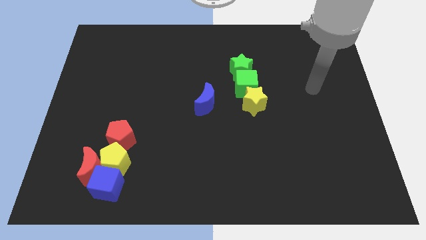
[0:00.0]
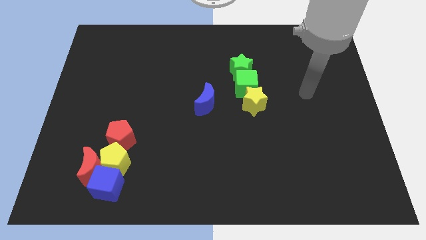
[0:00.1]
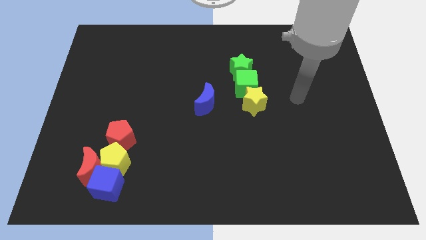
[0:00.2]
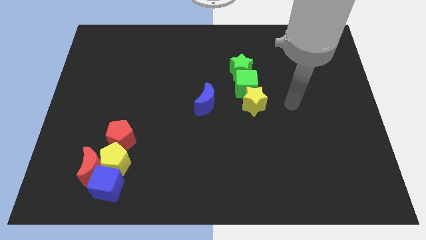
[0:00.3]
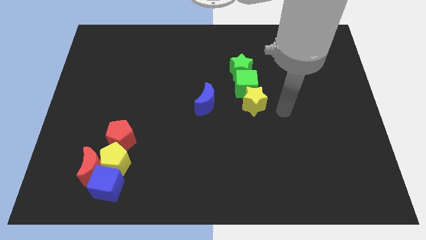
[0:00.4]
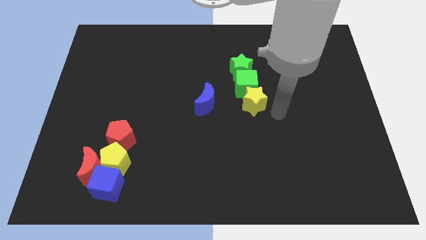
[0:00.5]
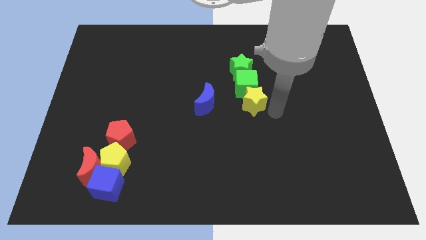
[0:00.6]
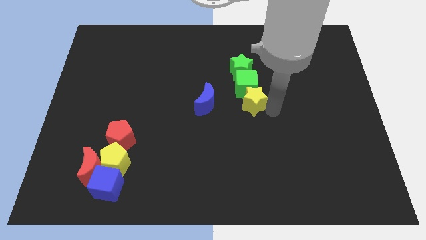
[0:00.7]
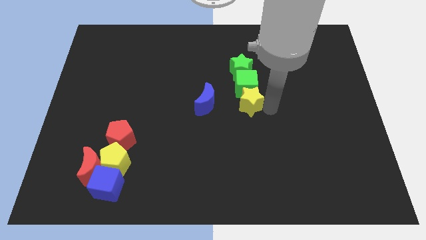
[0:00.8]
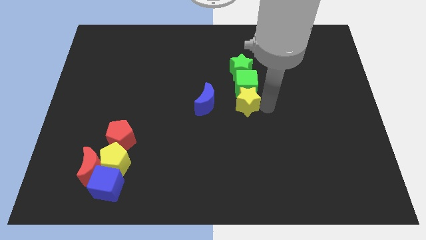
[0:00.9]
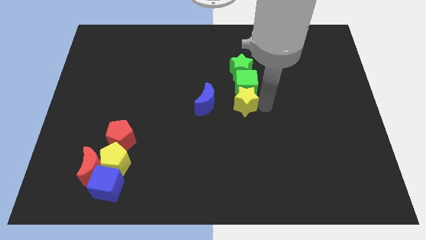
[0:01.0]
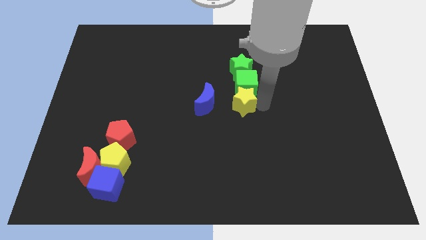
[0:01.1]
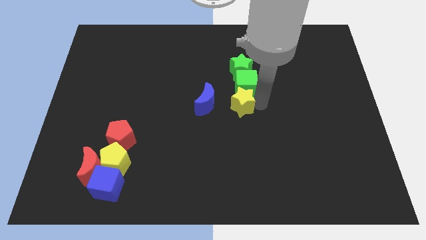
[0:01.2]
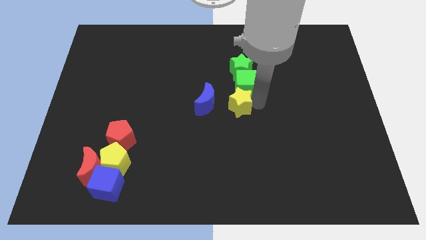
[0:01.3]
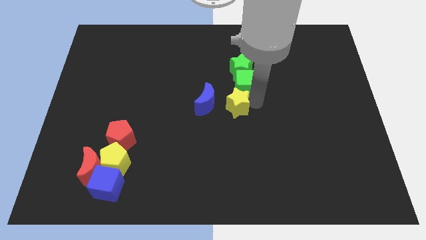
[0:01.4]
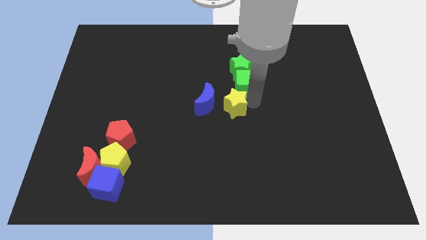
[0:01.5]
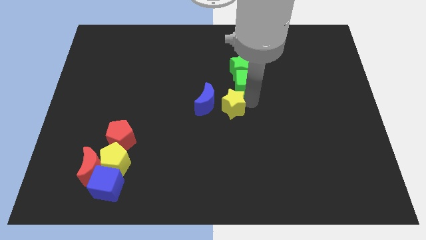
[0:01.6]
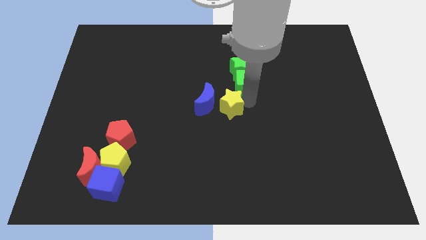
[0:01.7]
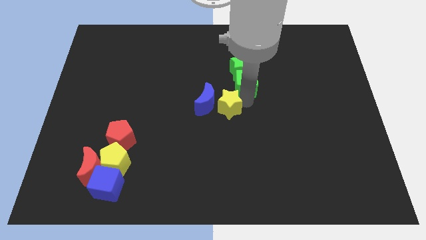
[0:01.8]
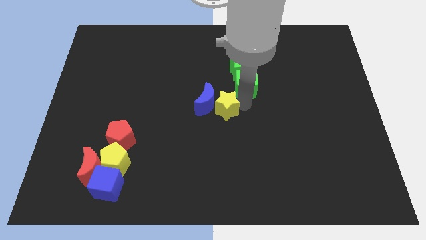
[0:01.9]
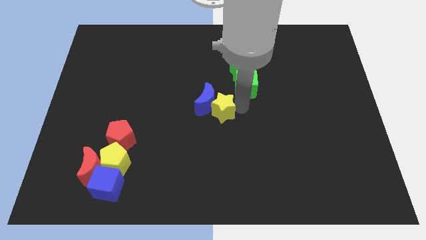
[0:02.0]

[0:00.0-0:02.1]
slide the yellow star slightly left

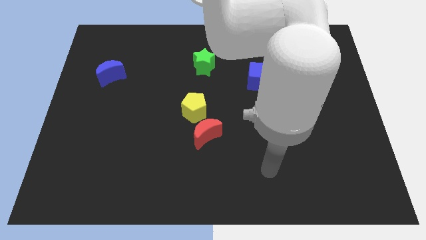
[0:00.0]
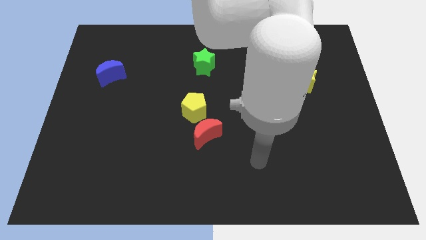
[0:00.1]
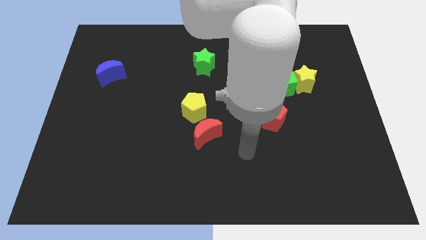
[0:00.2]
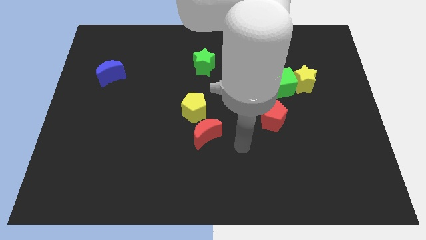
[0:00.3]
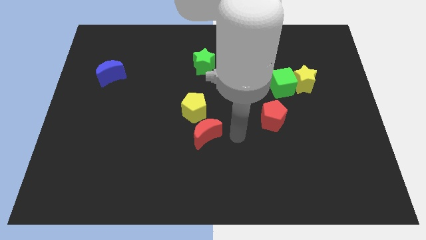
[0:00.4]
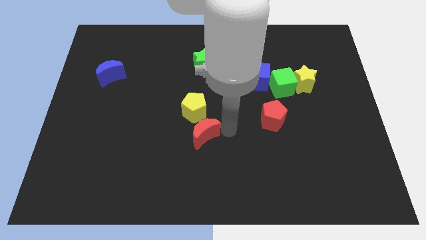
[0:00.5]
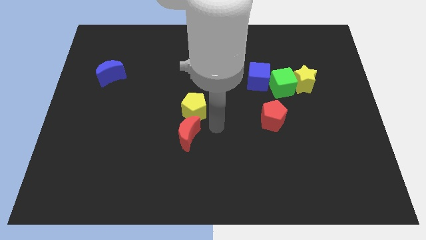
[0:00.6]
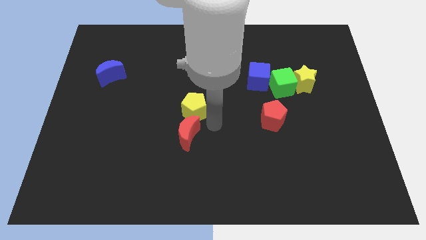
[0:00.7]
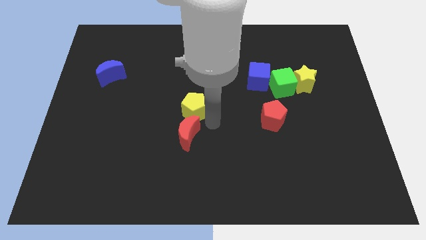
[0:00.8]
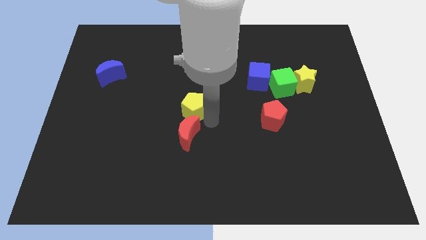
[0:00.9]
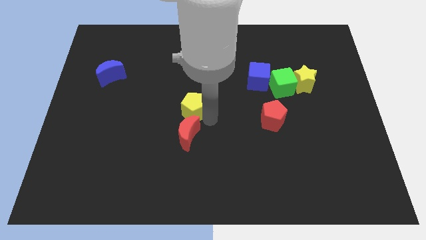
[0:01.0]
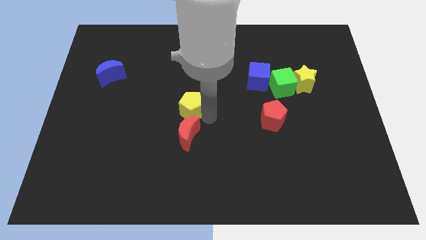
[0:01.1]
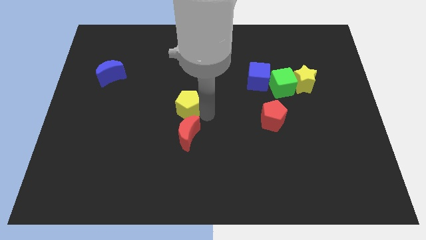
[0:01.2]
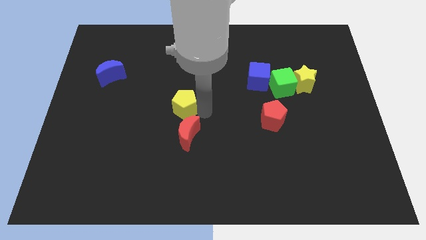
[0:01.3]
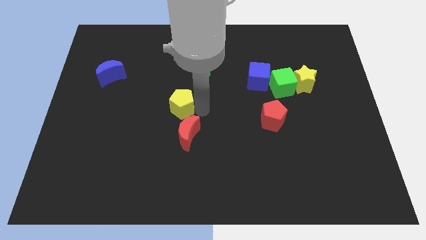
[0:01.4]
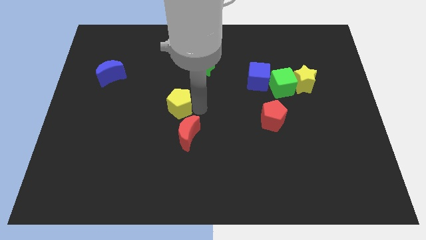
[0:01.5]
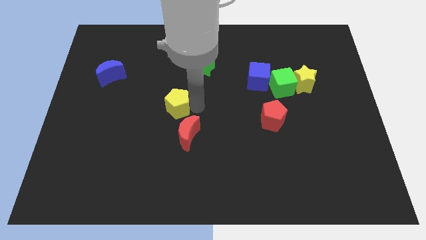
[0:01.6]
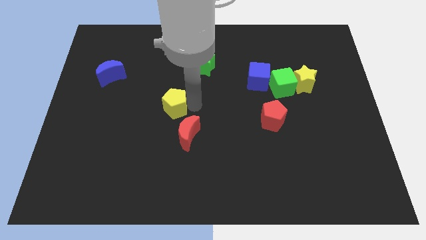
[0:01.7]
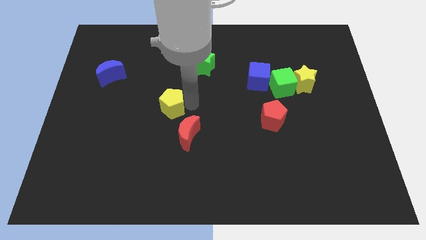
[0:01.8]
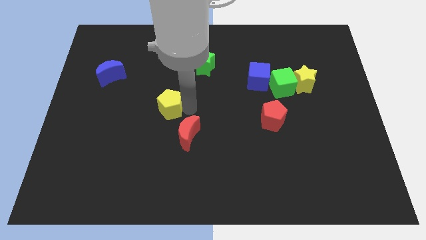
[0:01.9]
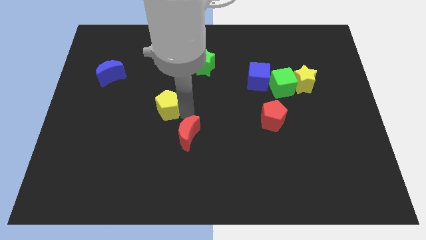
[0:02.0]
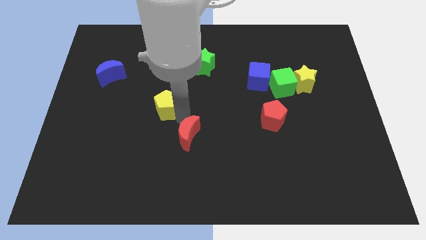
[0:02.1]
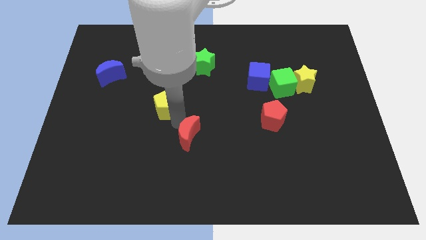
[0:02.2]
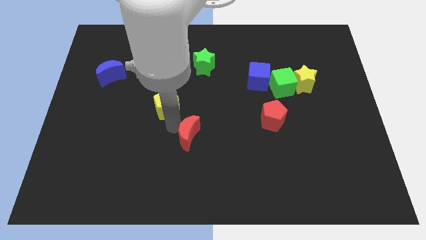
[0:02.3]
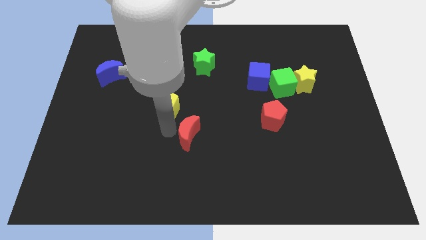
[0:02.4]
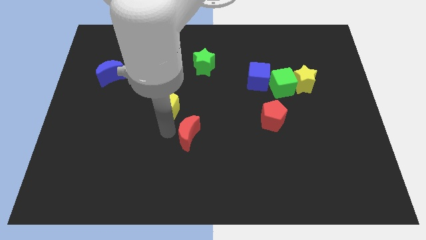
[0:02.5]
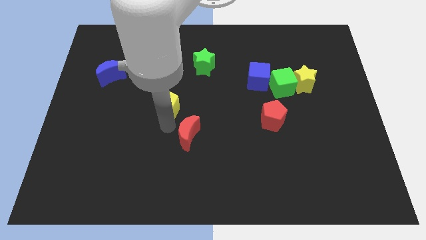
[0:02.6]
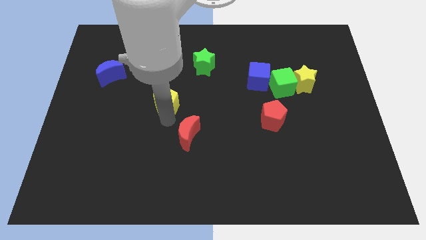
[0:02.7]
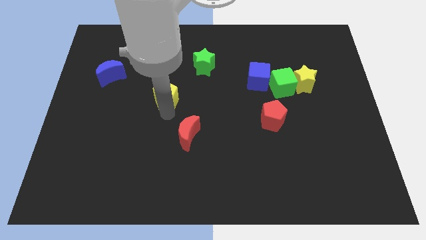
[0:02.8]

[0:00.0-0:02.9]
slightly push the yellow pentagon up and to the left

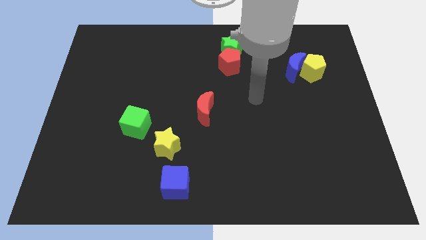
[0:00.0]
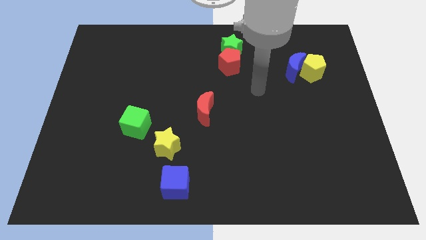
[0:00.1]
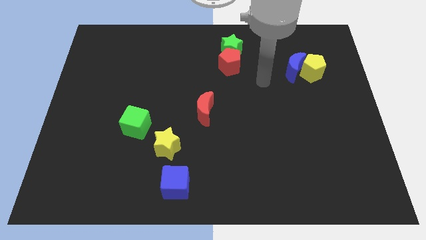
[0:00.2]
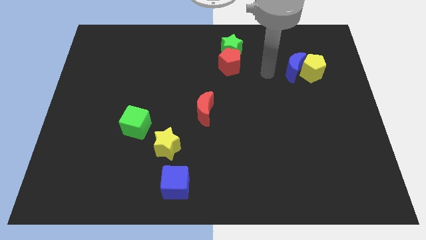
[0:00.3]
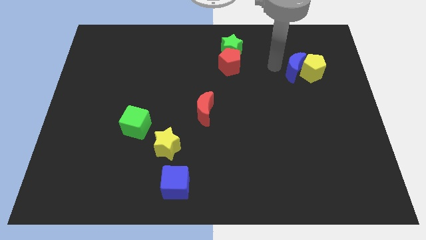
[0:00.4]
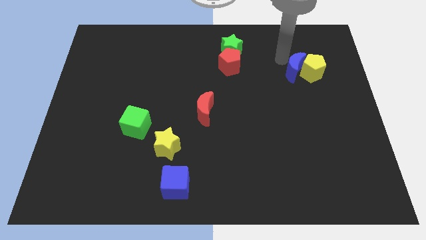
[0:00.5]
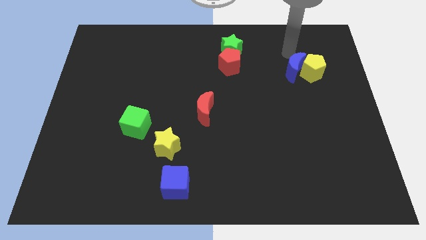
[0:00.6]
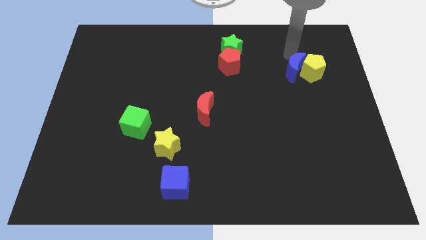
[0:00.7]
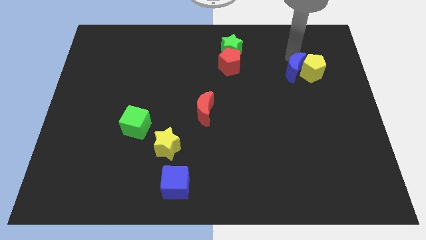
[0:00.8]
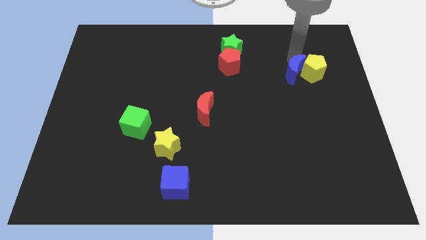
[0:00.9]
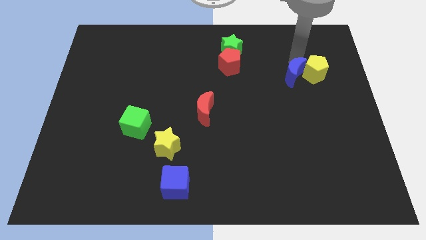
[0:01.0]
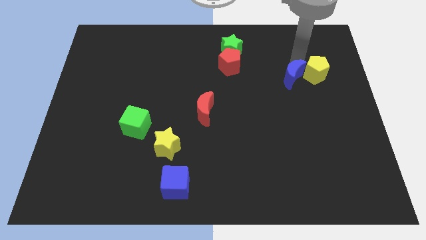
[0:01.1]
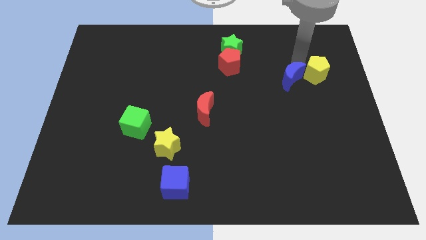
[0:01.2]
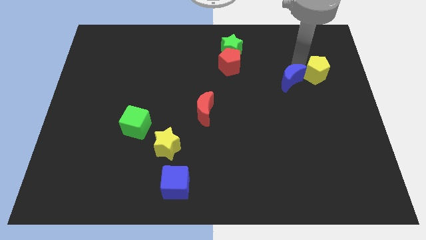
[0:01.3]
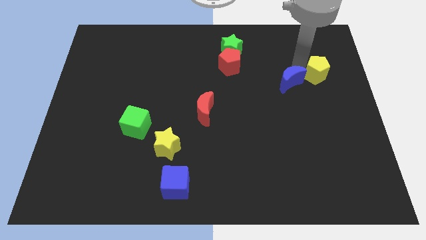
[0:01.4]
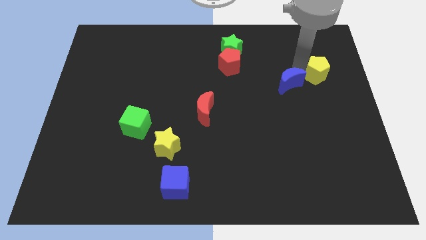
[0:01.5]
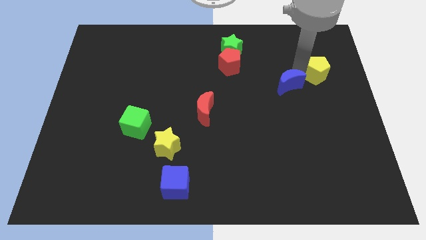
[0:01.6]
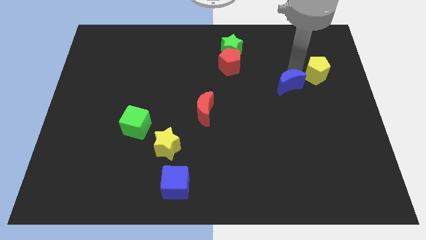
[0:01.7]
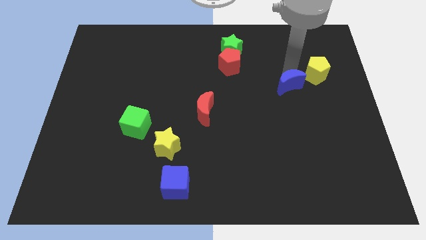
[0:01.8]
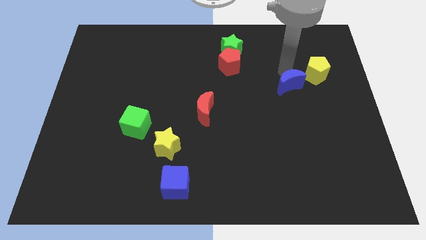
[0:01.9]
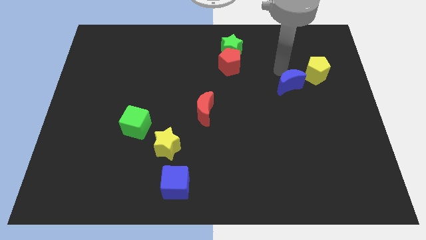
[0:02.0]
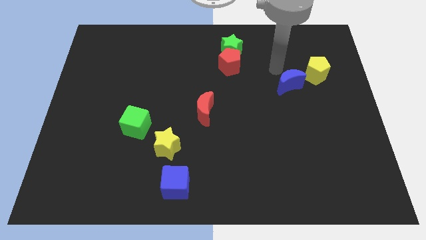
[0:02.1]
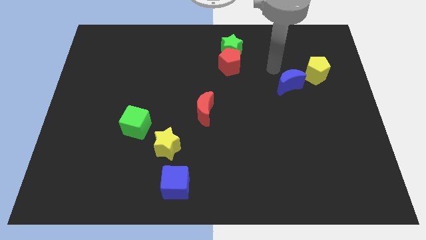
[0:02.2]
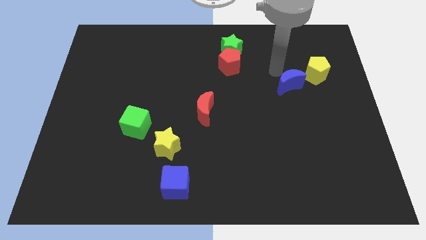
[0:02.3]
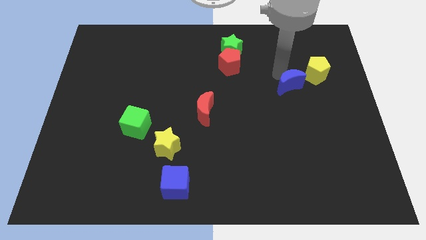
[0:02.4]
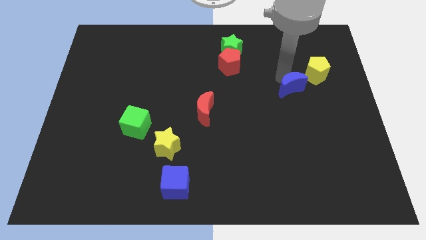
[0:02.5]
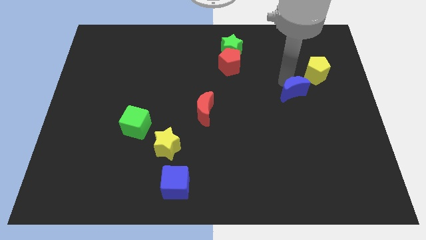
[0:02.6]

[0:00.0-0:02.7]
push the blue moon down slightly

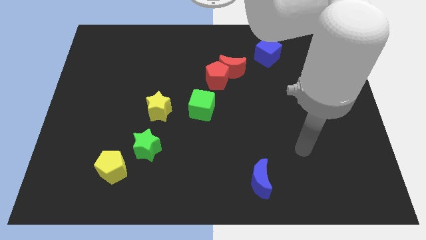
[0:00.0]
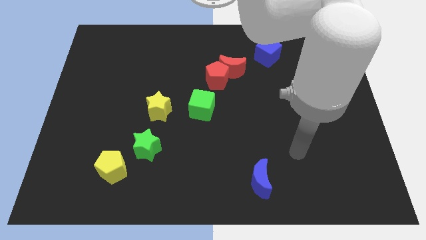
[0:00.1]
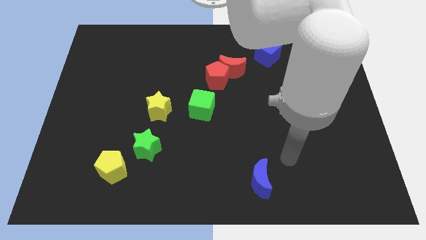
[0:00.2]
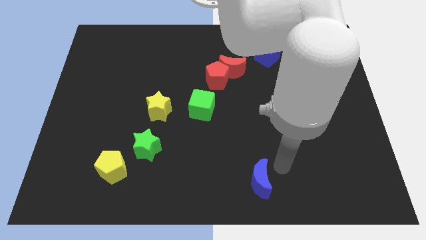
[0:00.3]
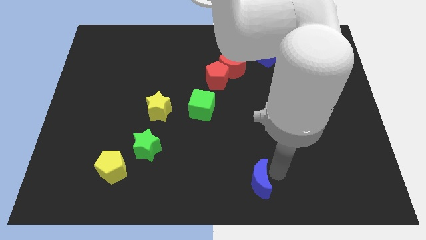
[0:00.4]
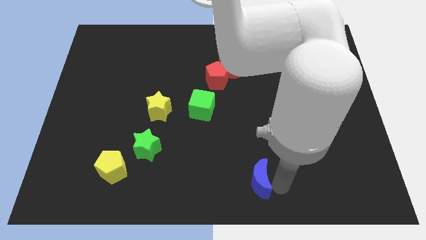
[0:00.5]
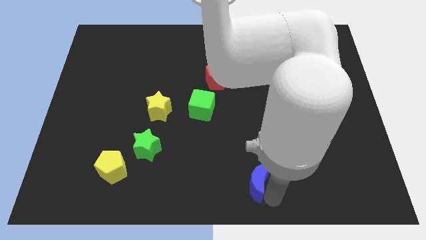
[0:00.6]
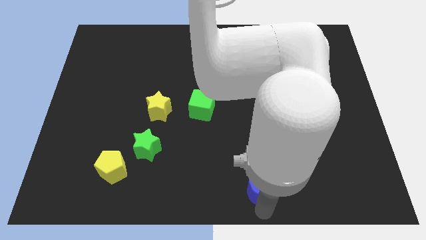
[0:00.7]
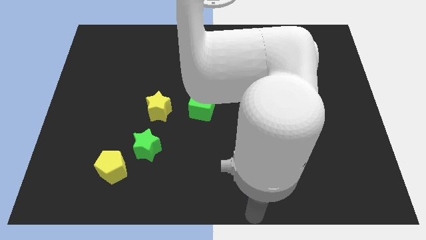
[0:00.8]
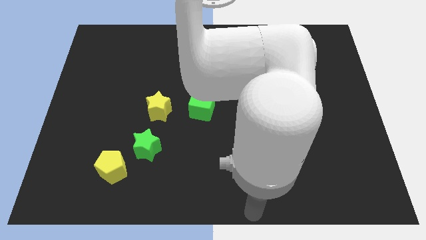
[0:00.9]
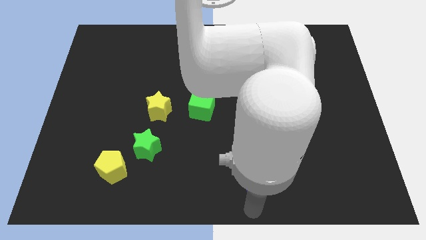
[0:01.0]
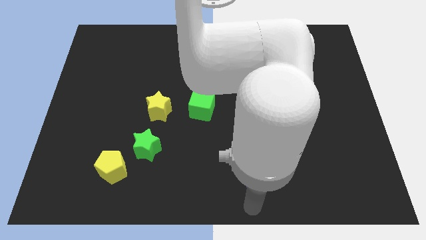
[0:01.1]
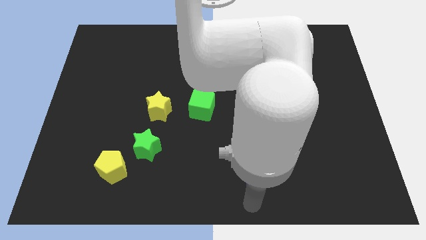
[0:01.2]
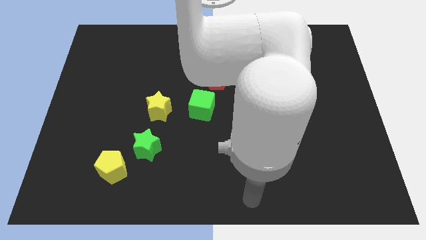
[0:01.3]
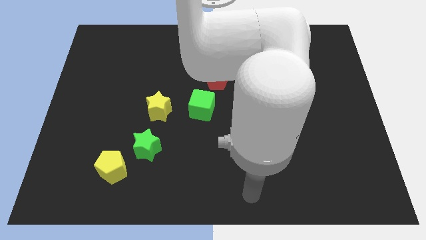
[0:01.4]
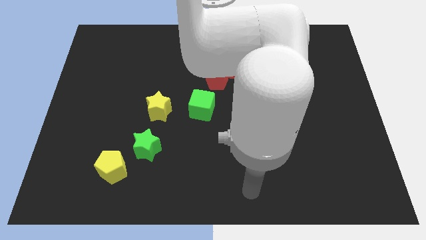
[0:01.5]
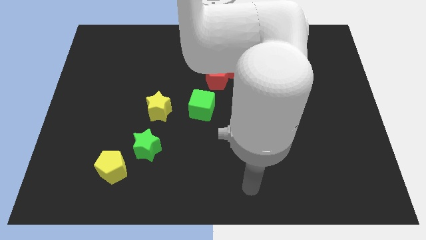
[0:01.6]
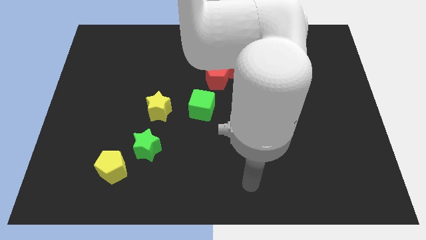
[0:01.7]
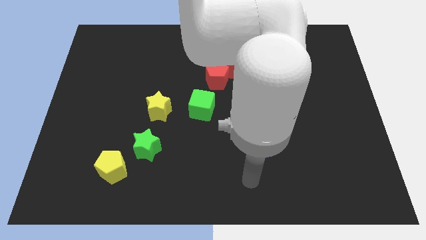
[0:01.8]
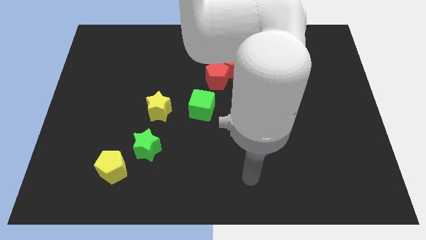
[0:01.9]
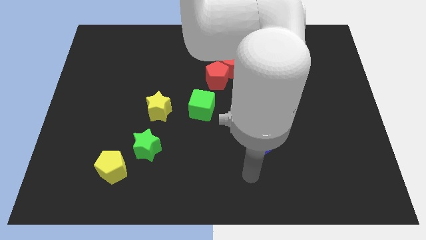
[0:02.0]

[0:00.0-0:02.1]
slightly push the blue moon upwards
